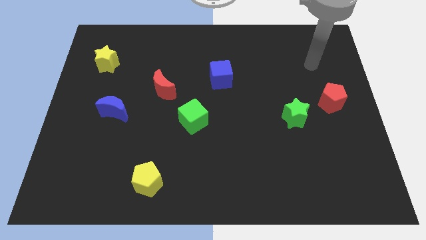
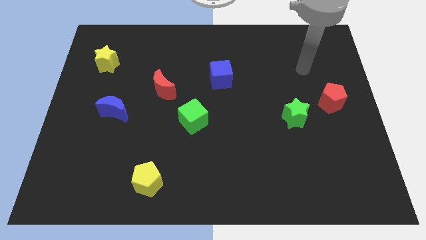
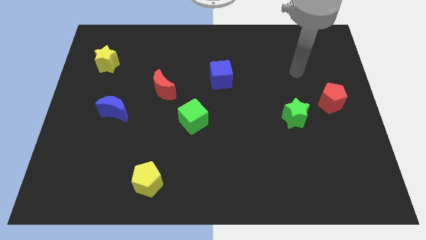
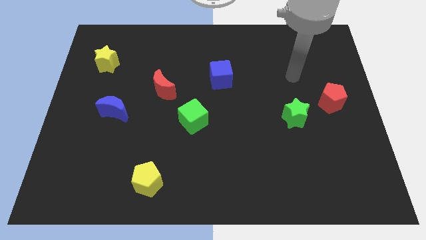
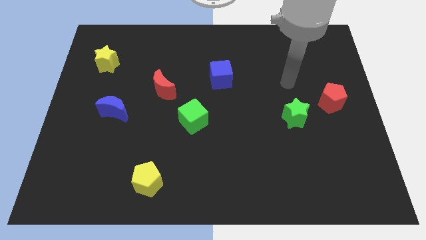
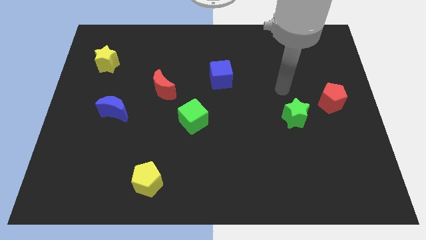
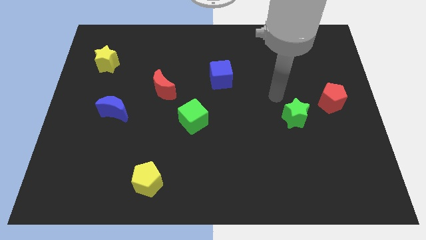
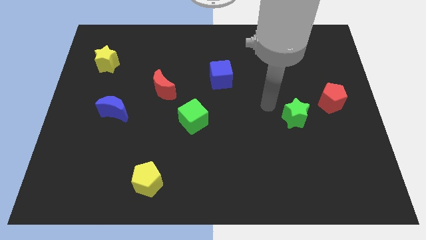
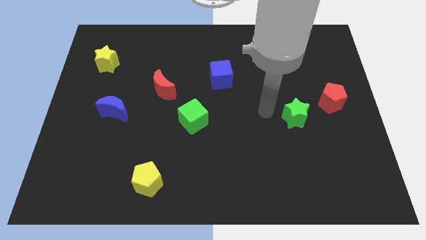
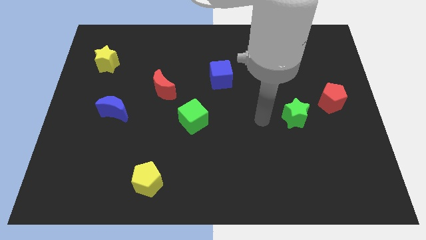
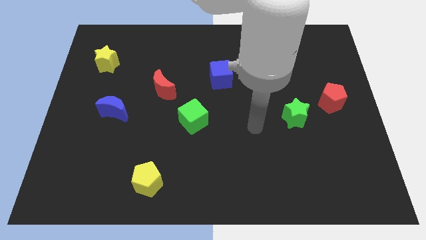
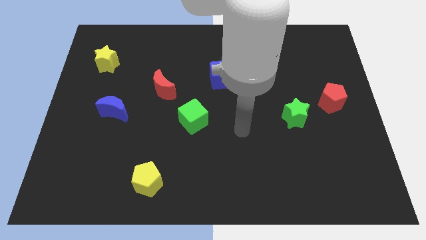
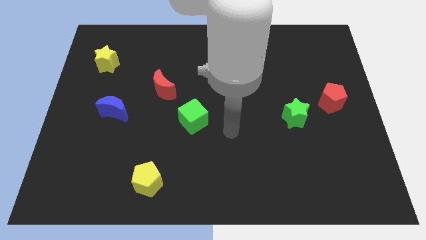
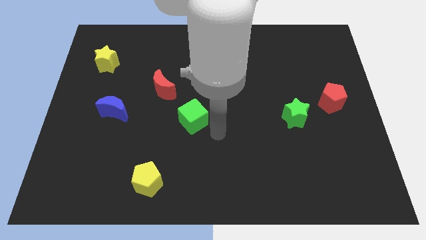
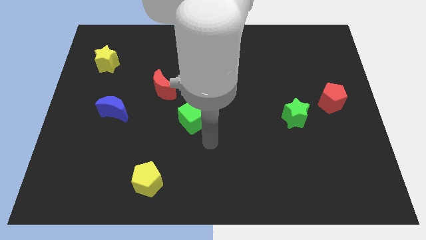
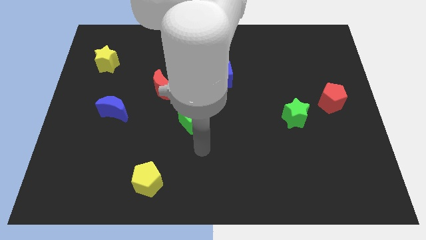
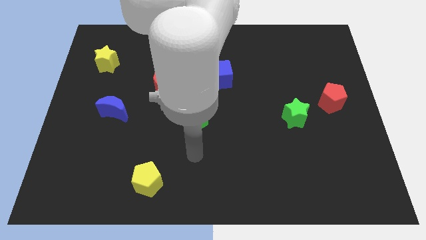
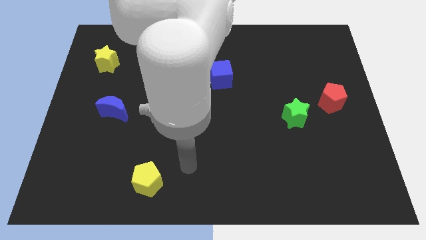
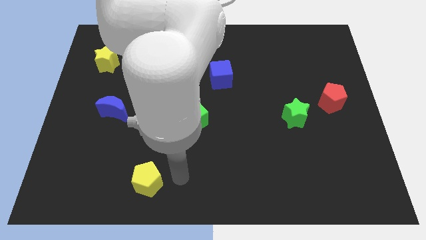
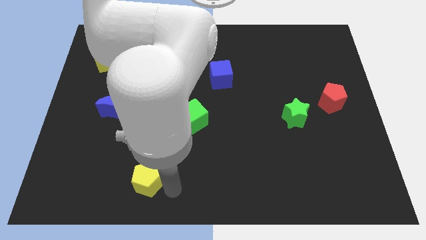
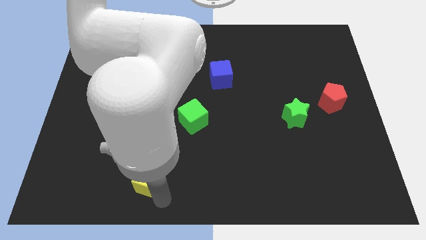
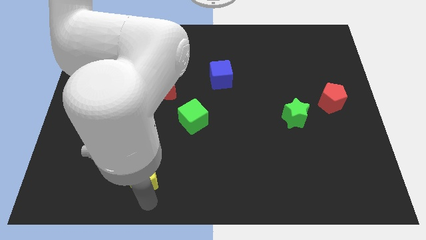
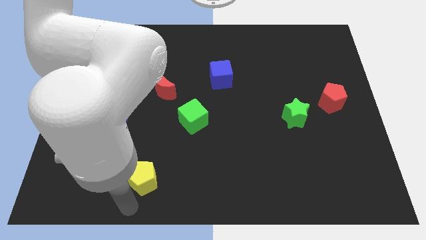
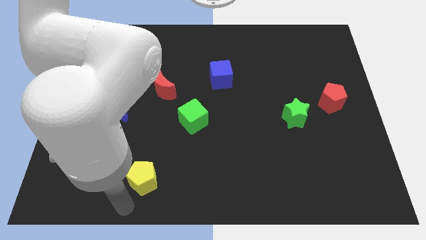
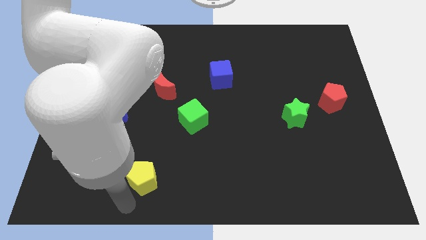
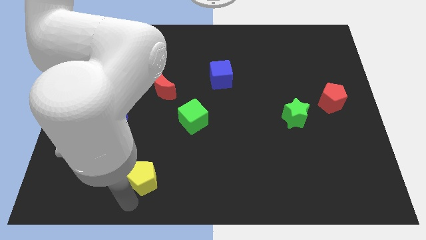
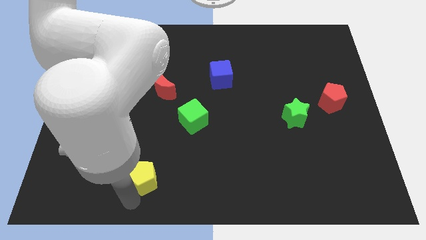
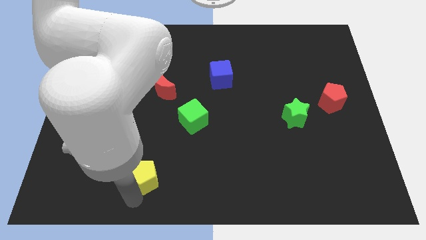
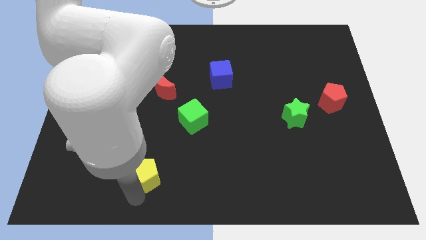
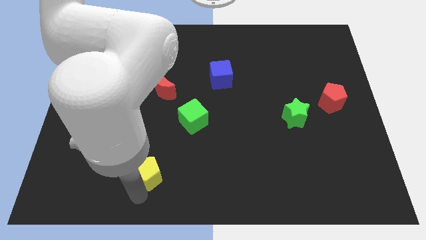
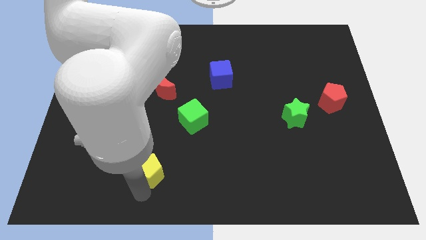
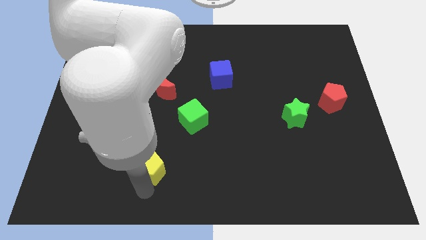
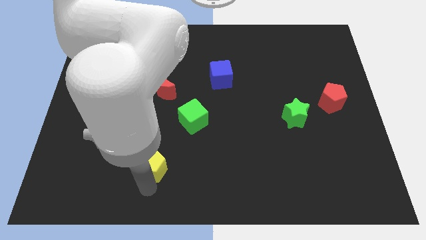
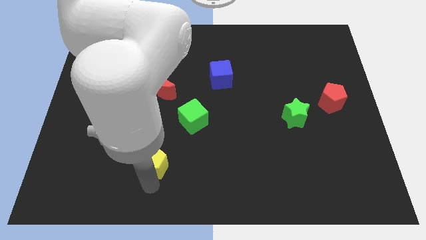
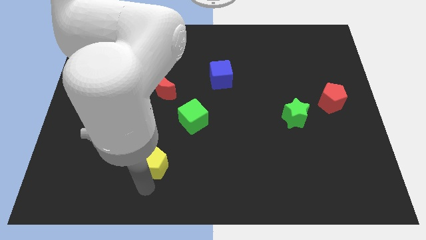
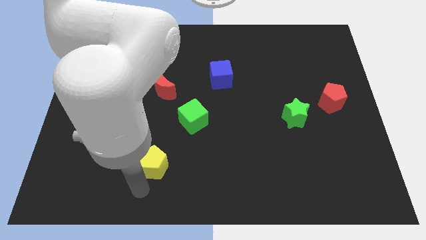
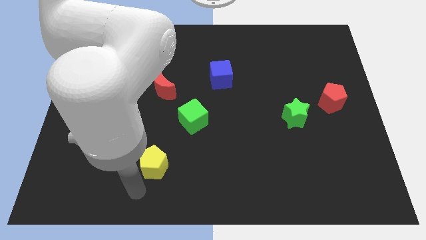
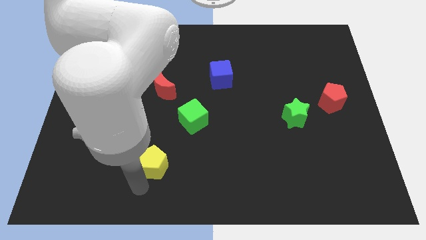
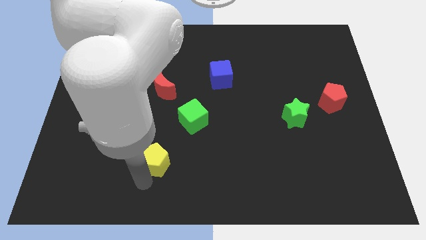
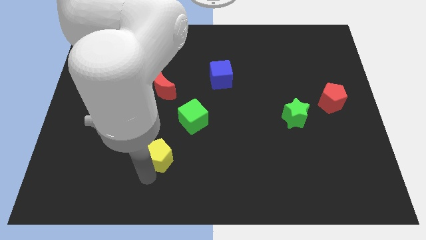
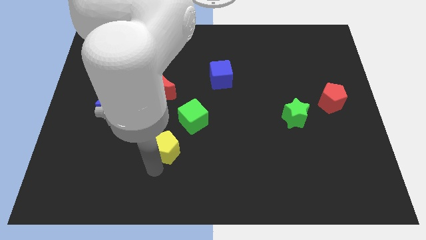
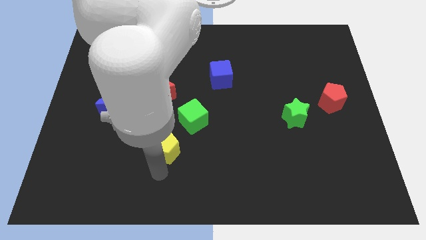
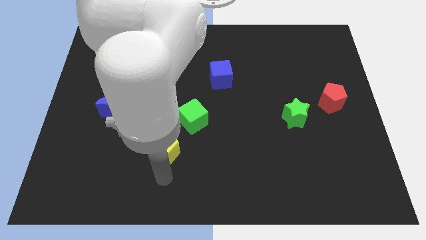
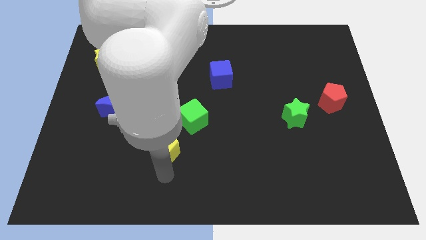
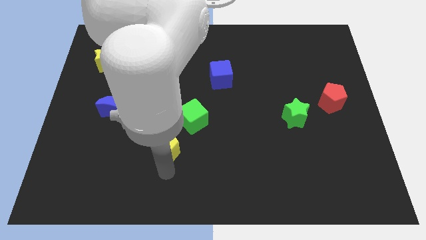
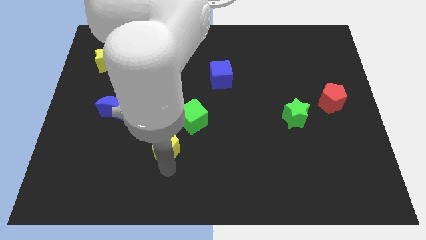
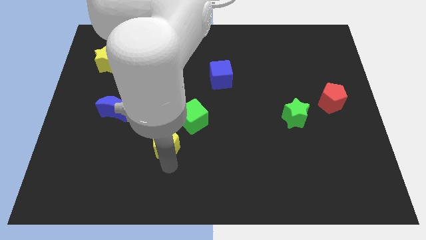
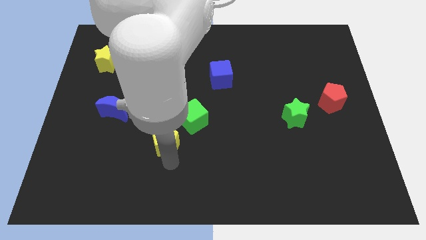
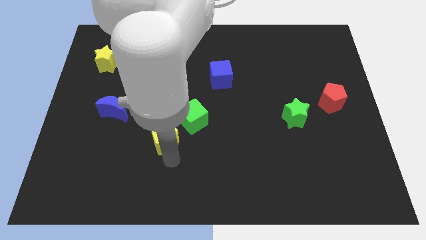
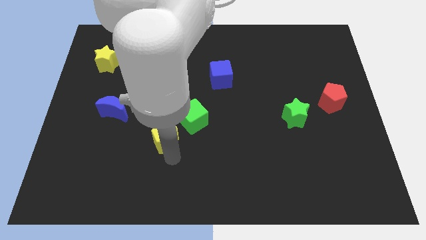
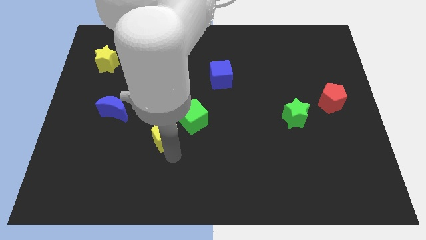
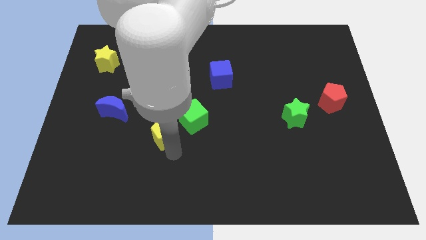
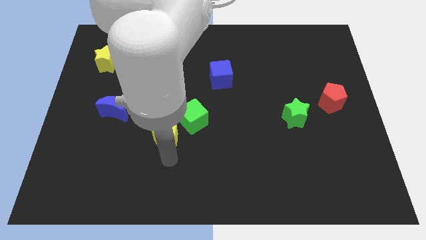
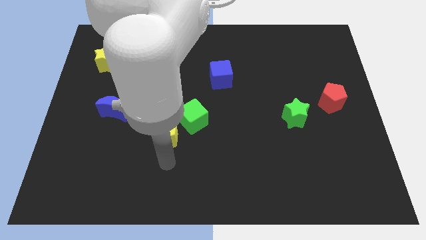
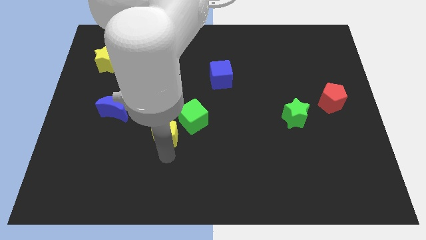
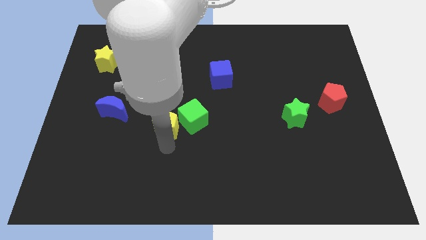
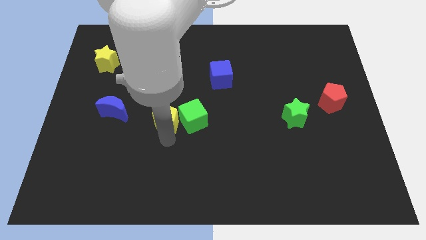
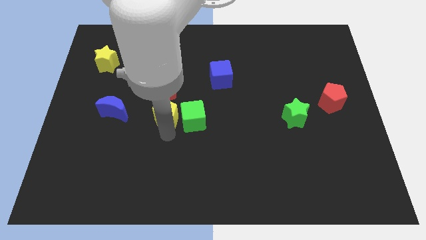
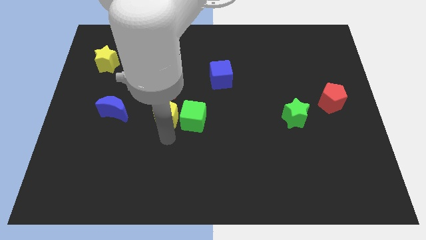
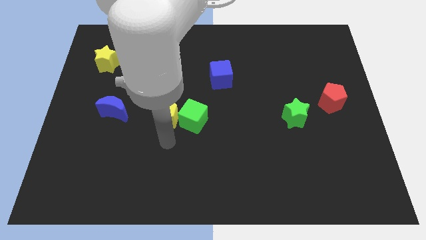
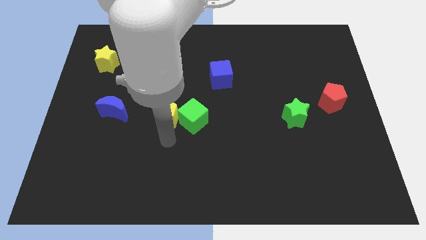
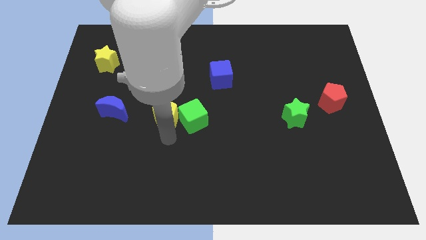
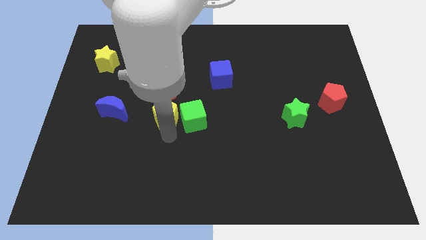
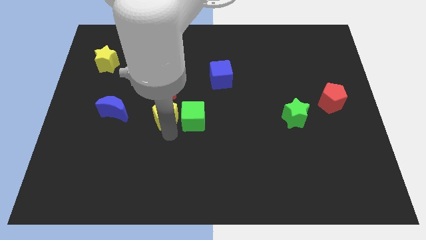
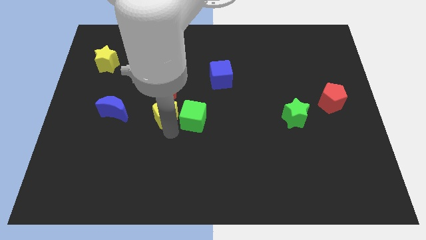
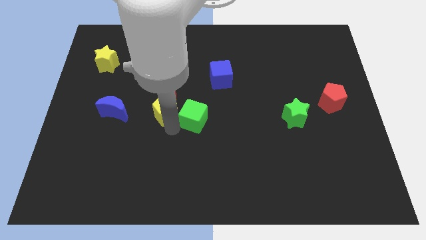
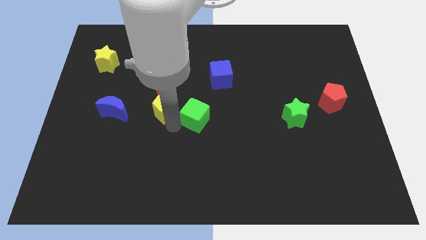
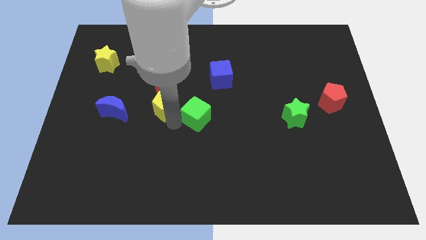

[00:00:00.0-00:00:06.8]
put the yellow pentagon towards the red moon
